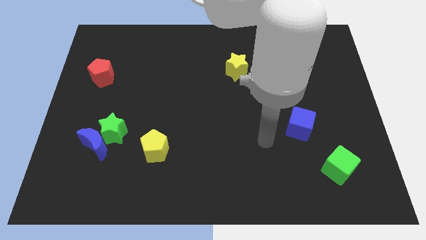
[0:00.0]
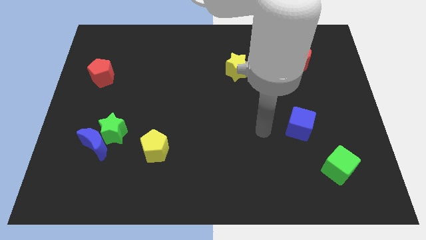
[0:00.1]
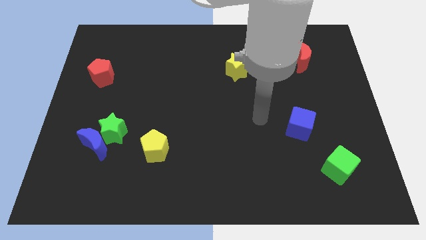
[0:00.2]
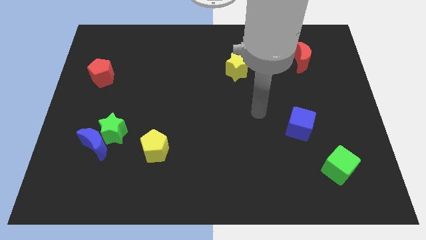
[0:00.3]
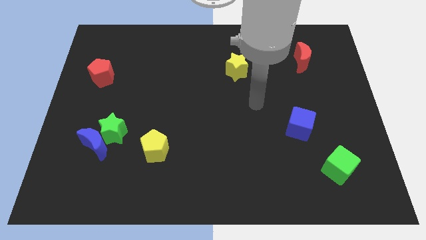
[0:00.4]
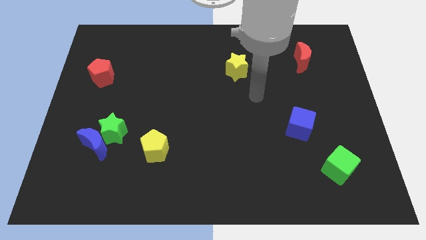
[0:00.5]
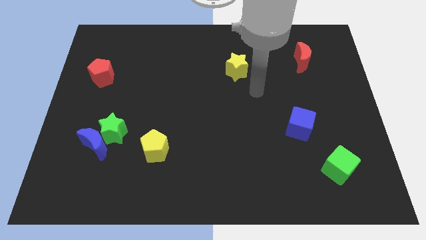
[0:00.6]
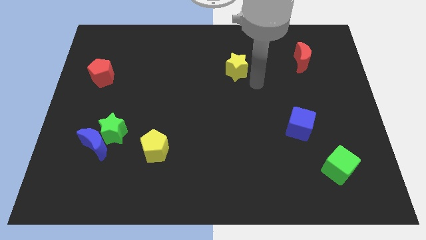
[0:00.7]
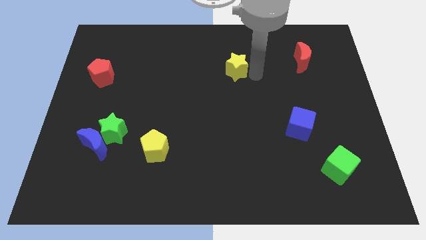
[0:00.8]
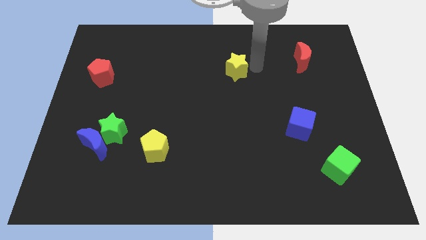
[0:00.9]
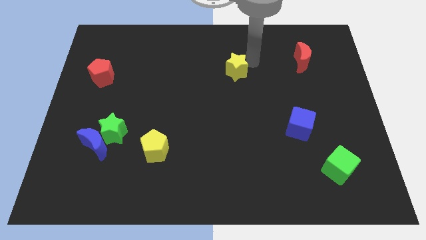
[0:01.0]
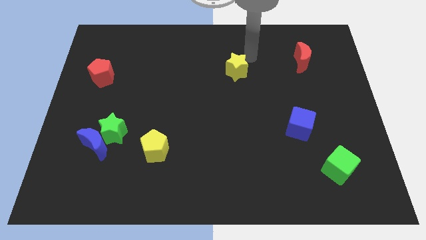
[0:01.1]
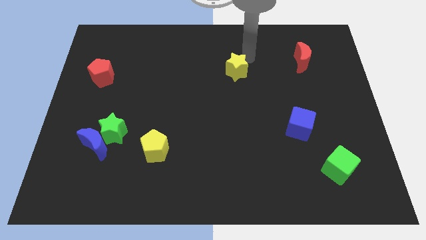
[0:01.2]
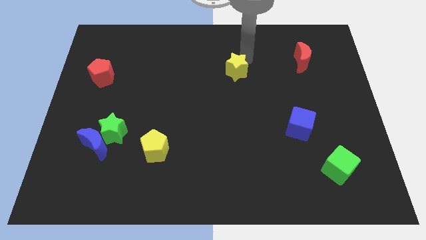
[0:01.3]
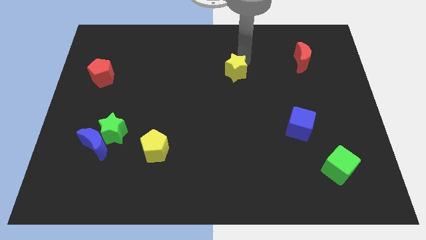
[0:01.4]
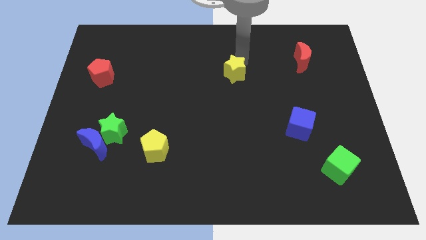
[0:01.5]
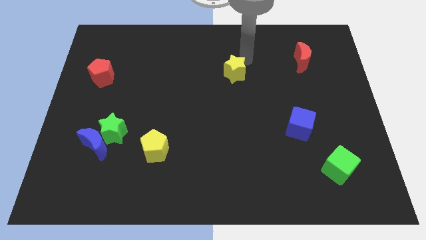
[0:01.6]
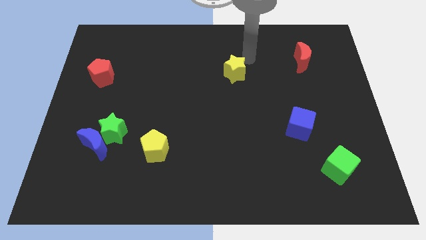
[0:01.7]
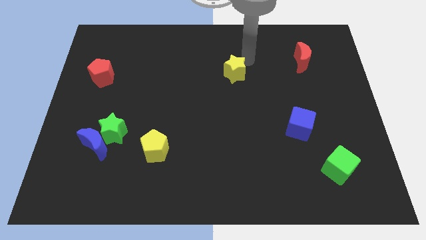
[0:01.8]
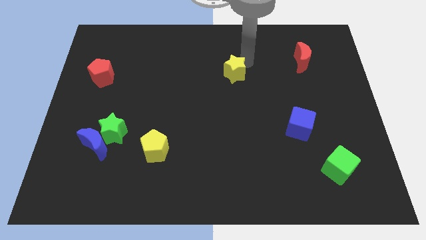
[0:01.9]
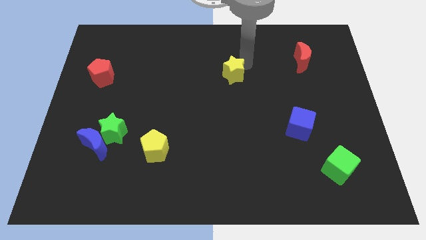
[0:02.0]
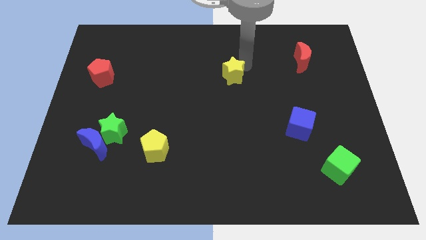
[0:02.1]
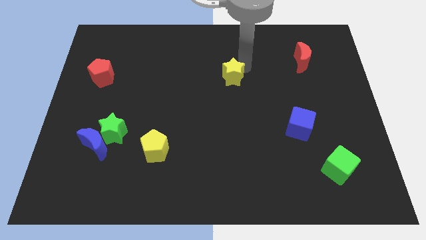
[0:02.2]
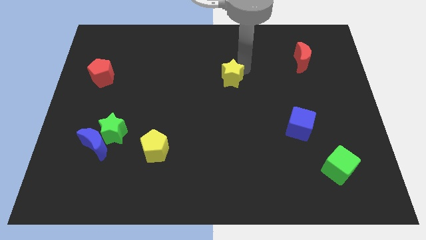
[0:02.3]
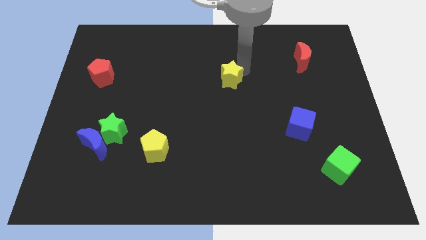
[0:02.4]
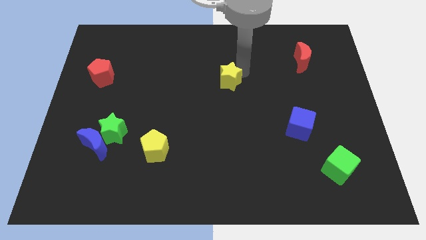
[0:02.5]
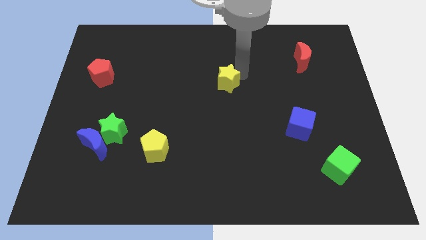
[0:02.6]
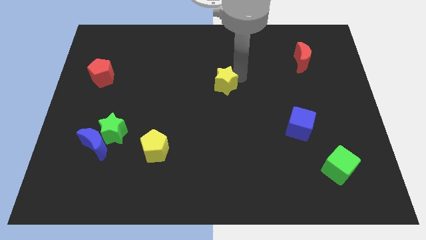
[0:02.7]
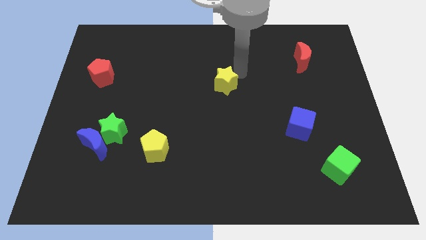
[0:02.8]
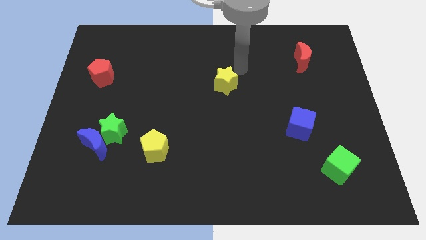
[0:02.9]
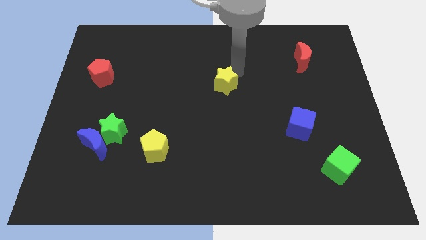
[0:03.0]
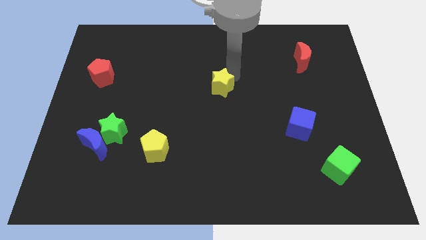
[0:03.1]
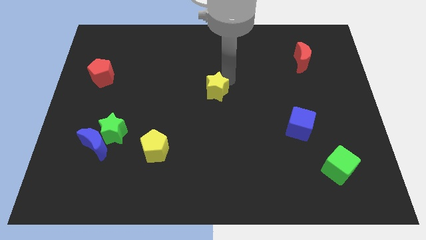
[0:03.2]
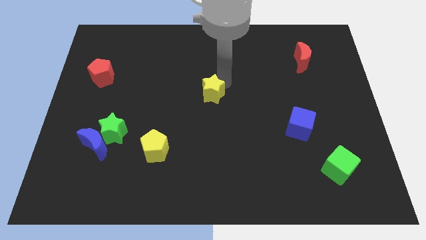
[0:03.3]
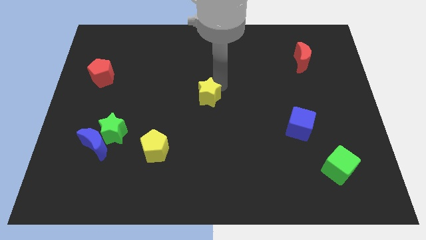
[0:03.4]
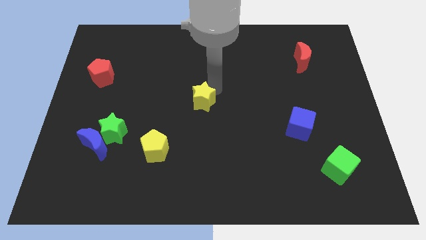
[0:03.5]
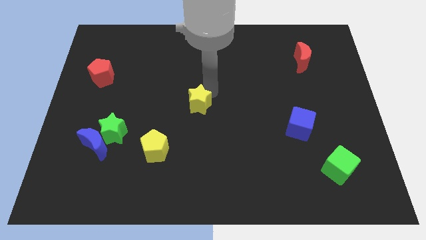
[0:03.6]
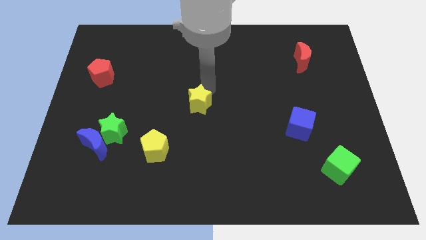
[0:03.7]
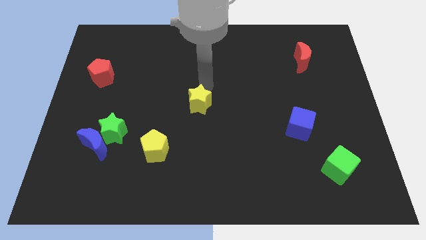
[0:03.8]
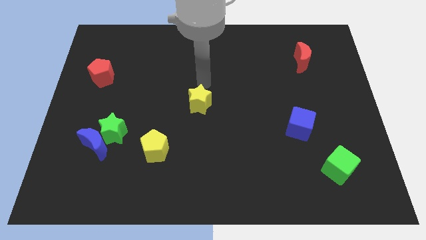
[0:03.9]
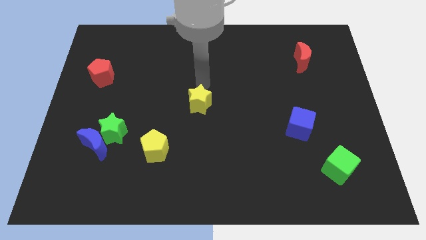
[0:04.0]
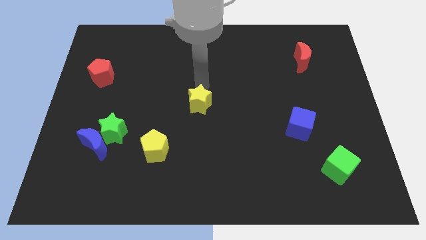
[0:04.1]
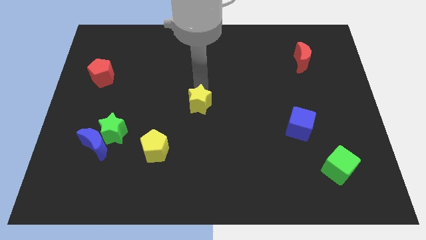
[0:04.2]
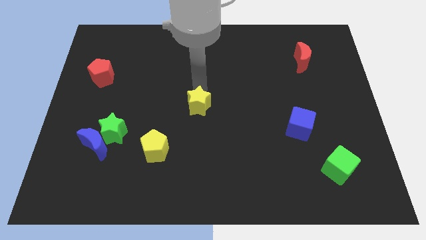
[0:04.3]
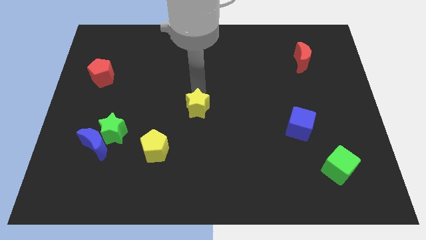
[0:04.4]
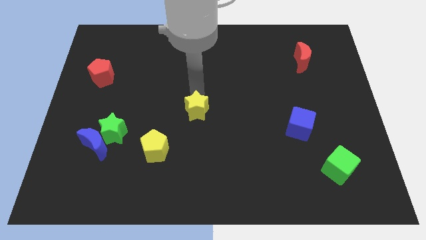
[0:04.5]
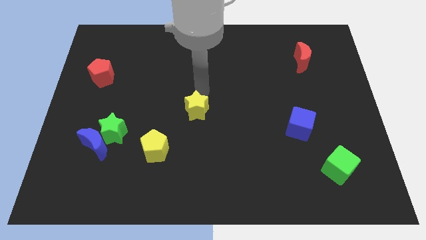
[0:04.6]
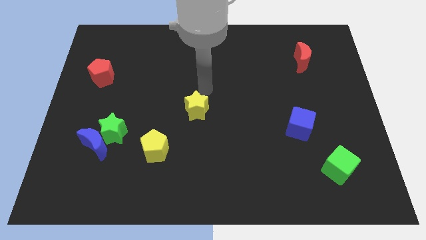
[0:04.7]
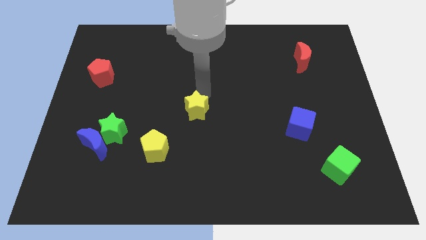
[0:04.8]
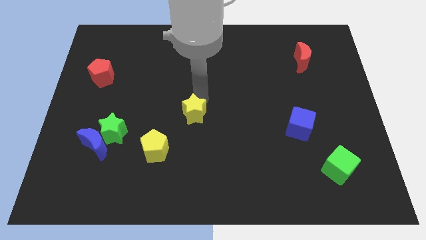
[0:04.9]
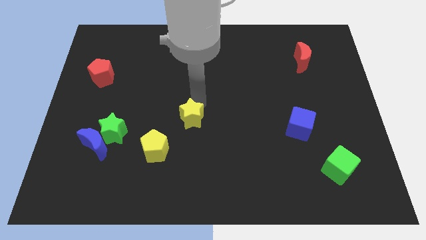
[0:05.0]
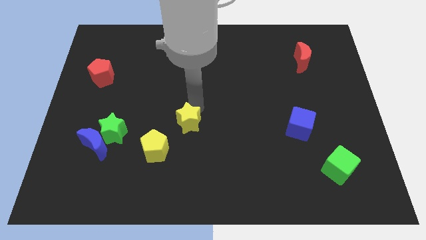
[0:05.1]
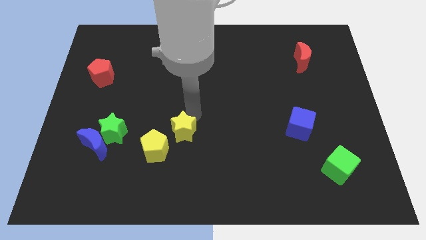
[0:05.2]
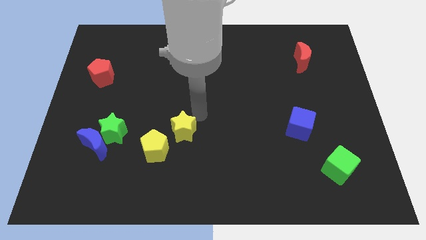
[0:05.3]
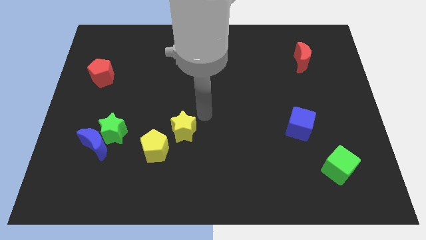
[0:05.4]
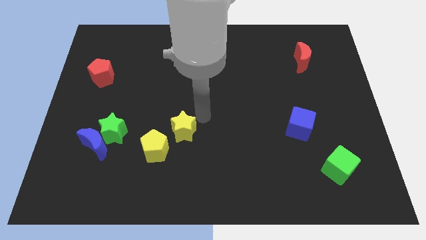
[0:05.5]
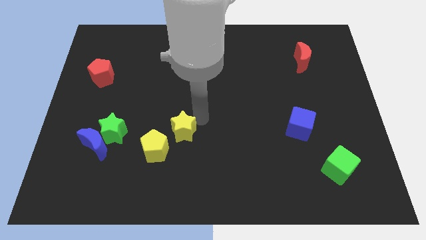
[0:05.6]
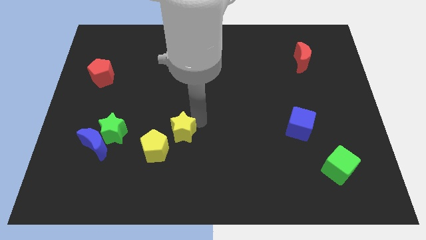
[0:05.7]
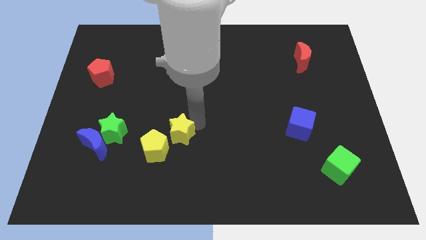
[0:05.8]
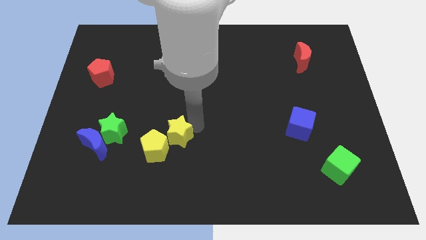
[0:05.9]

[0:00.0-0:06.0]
move the yellow star next to the yellow pentagon

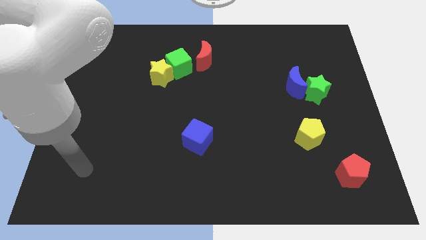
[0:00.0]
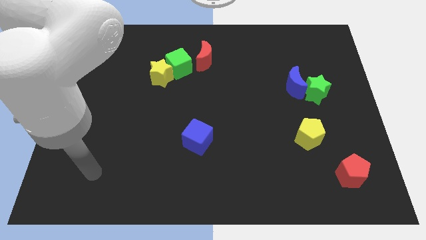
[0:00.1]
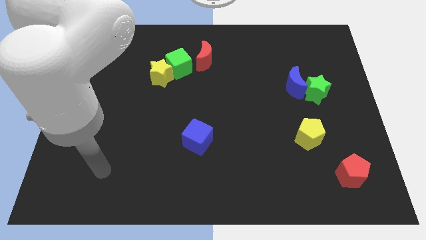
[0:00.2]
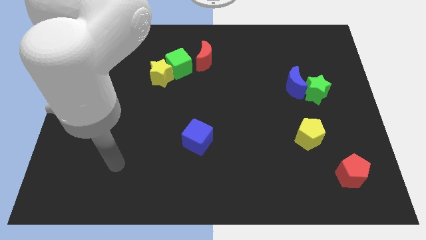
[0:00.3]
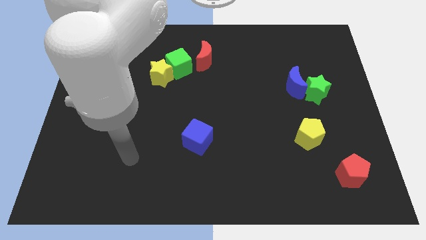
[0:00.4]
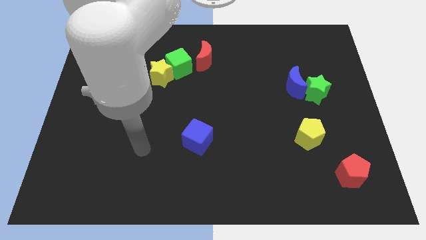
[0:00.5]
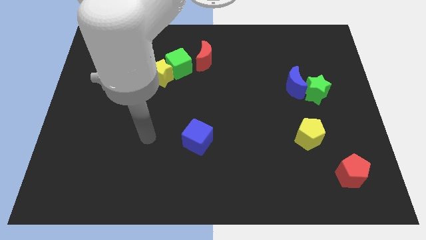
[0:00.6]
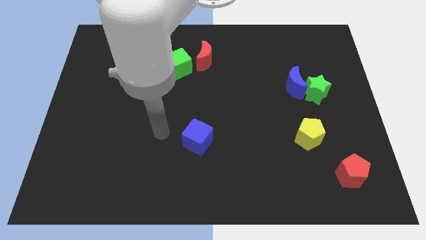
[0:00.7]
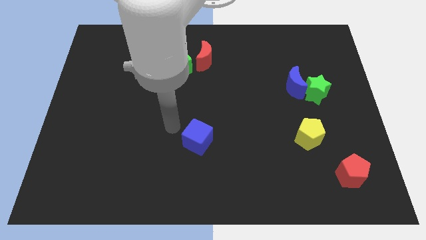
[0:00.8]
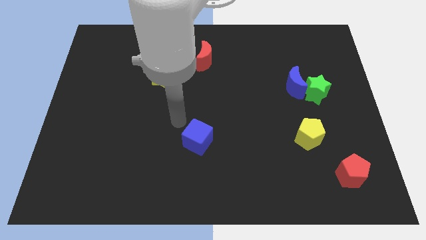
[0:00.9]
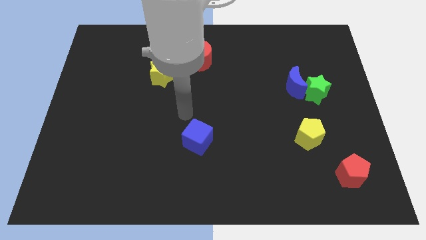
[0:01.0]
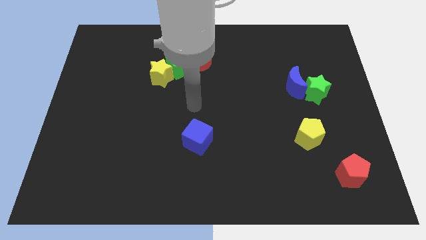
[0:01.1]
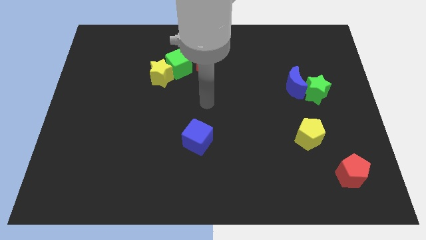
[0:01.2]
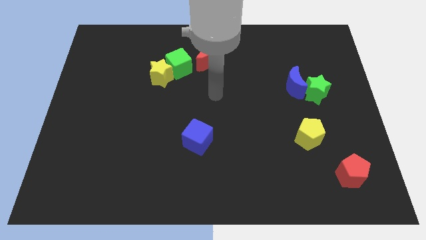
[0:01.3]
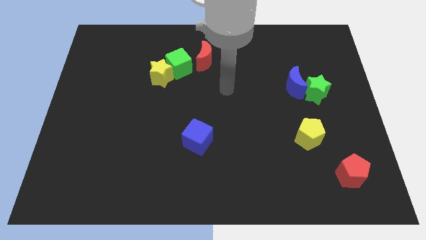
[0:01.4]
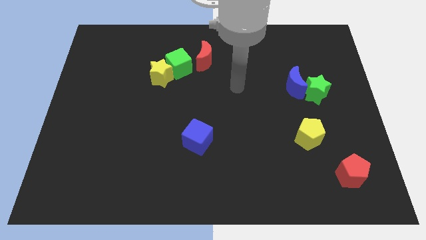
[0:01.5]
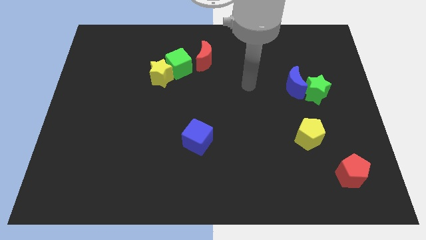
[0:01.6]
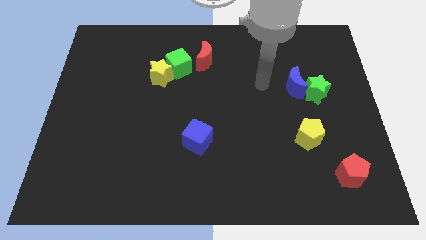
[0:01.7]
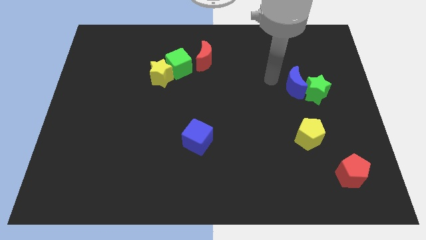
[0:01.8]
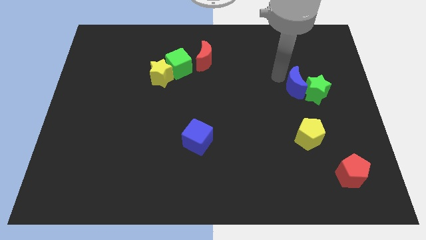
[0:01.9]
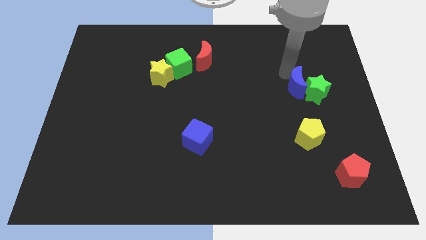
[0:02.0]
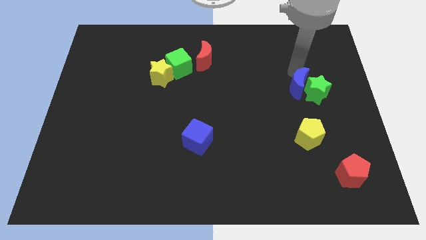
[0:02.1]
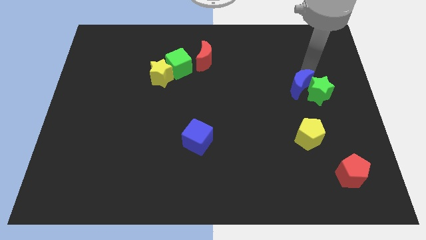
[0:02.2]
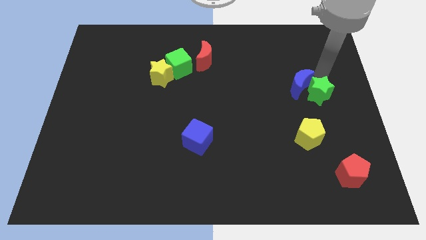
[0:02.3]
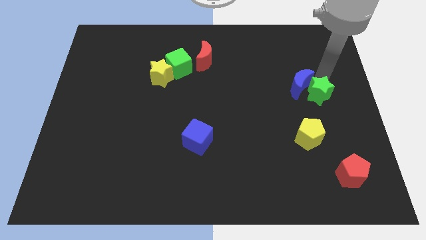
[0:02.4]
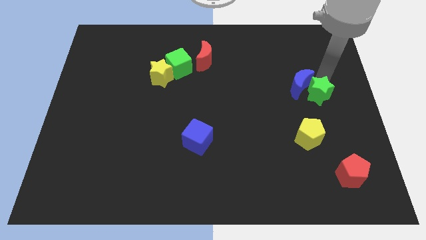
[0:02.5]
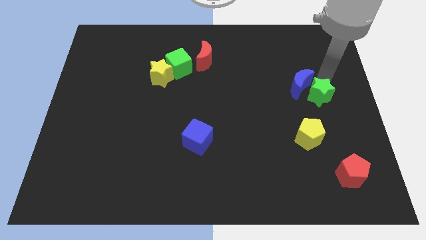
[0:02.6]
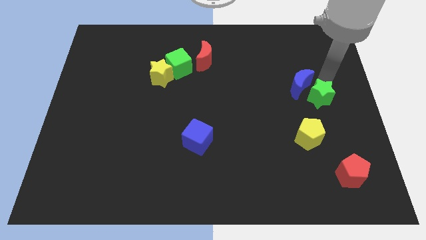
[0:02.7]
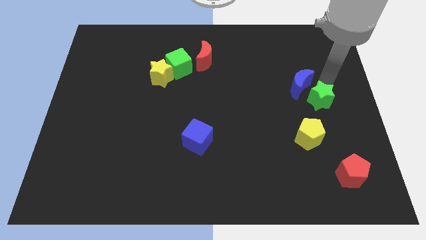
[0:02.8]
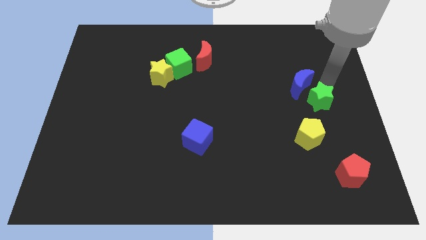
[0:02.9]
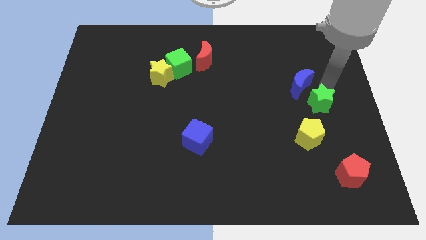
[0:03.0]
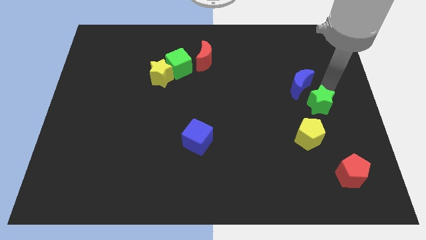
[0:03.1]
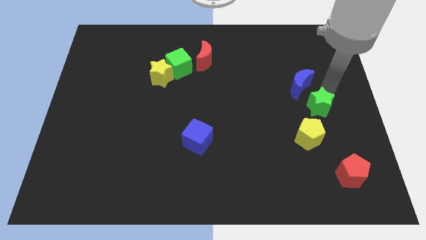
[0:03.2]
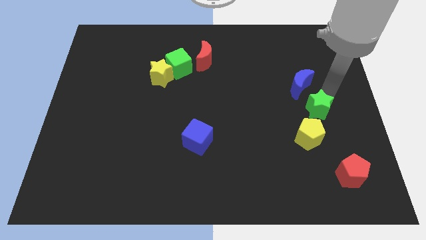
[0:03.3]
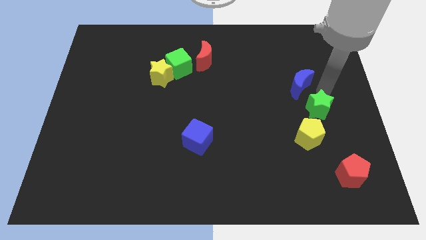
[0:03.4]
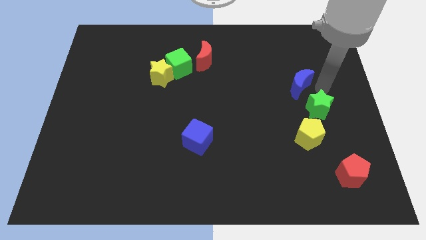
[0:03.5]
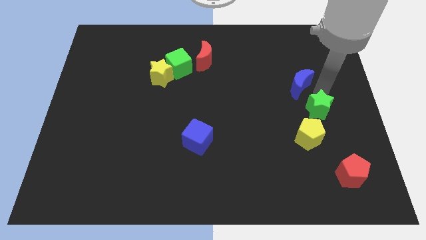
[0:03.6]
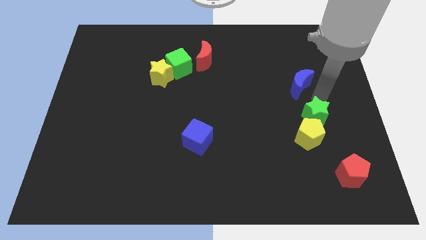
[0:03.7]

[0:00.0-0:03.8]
push the green star to the yellow pentagon
